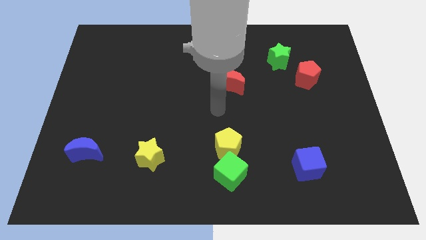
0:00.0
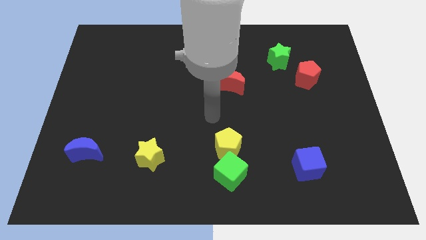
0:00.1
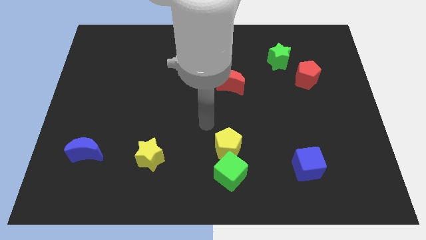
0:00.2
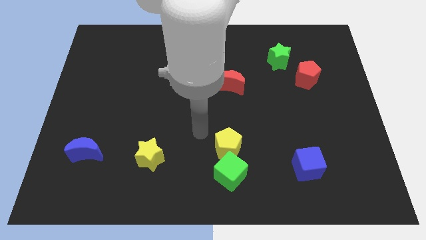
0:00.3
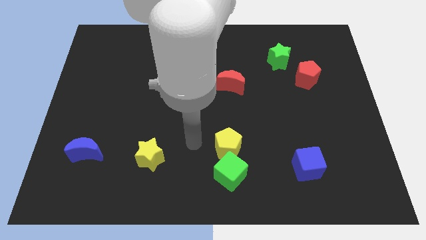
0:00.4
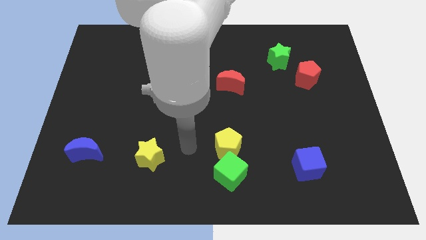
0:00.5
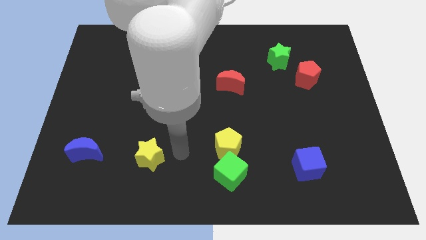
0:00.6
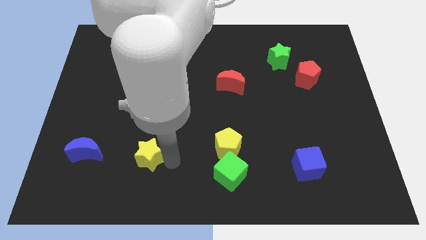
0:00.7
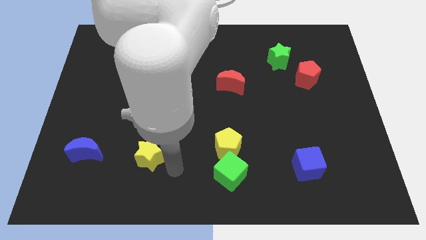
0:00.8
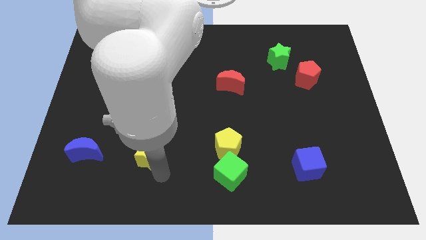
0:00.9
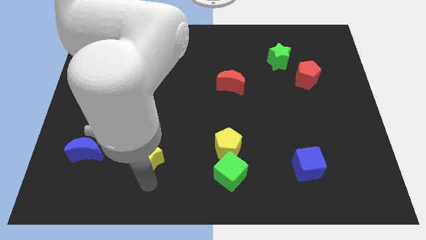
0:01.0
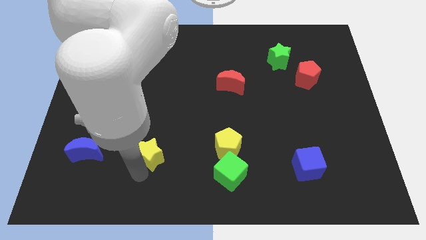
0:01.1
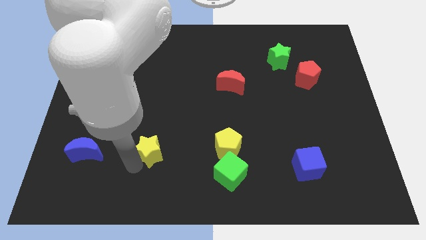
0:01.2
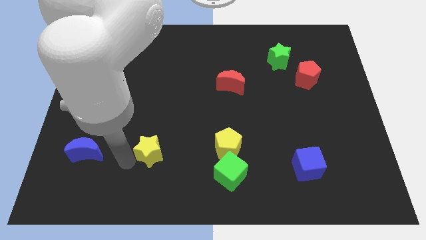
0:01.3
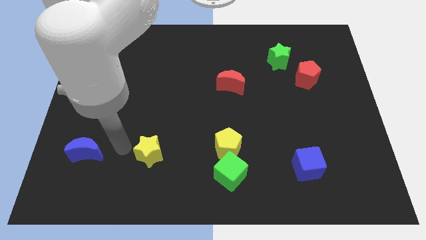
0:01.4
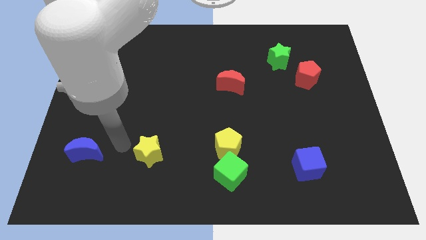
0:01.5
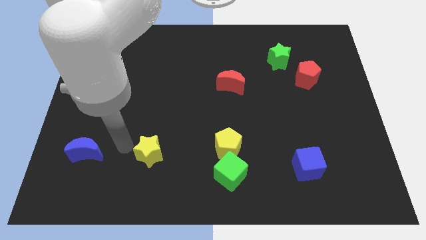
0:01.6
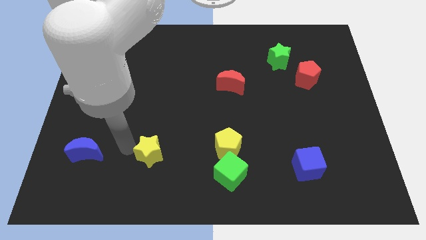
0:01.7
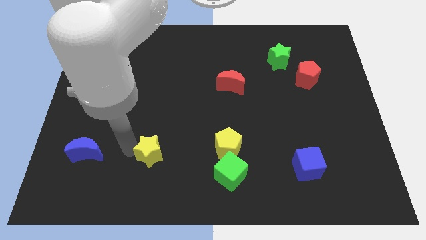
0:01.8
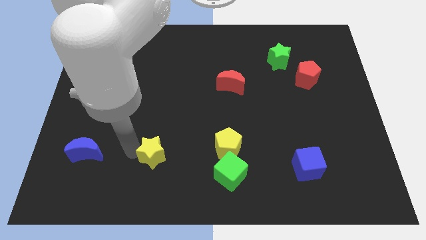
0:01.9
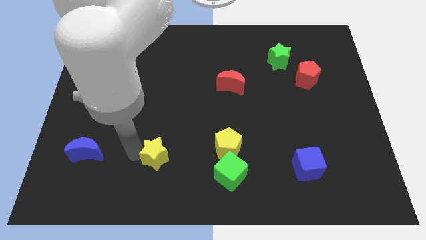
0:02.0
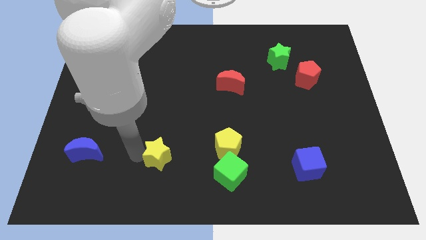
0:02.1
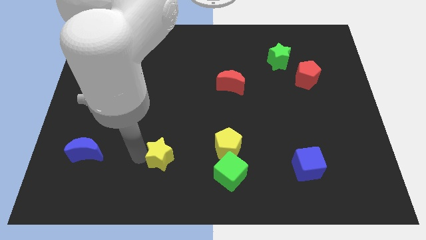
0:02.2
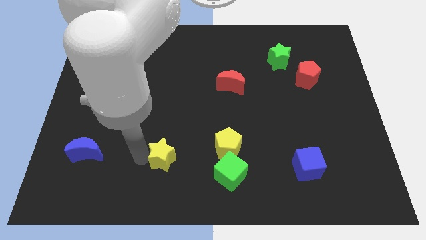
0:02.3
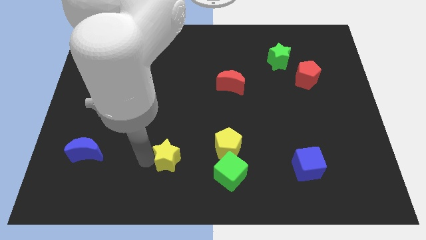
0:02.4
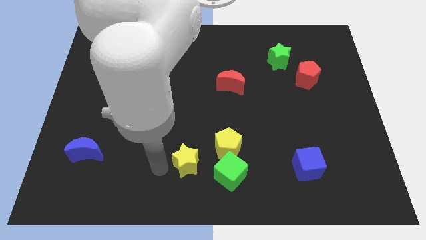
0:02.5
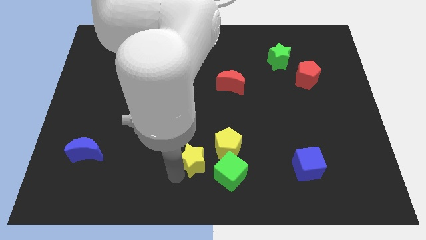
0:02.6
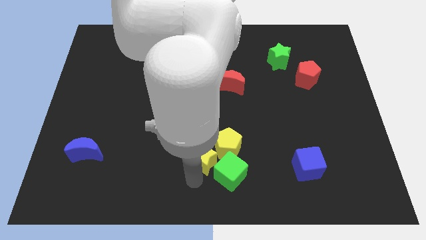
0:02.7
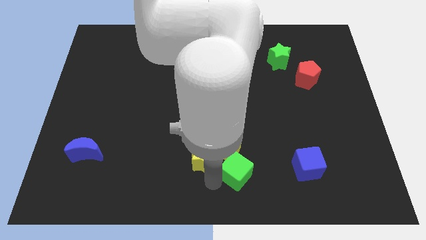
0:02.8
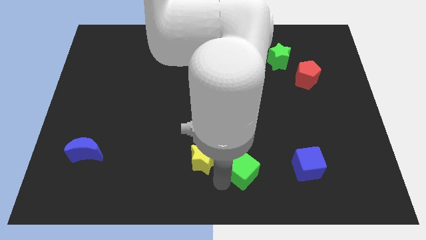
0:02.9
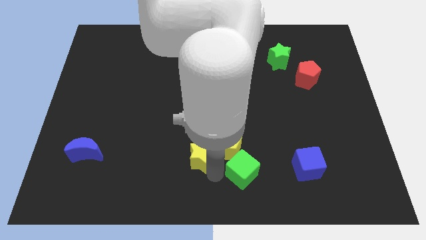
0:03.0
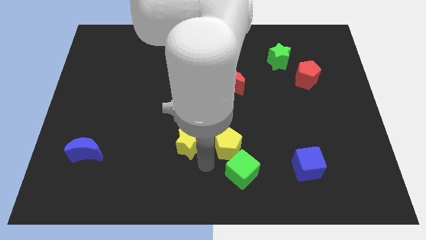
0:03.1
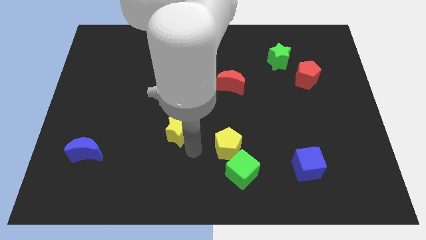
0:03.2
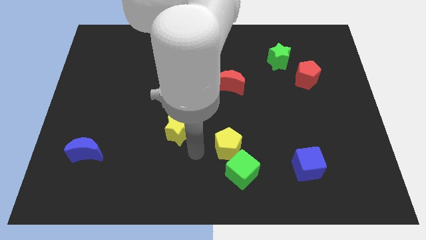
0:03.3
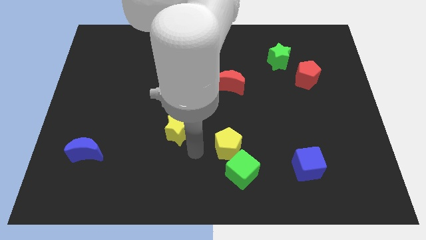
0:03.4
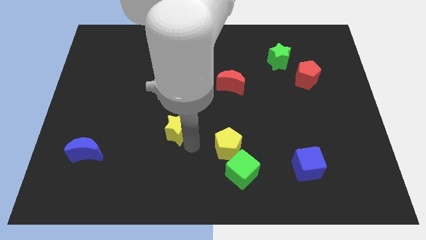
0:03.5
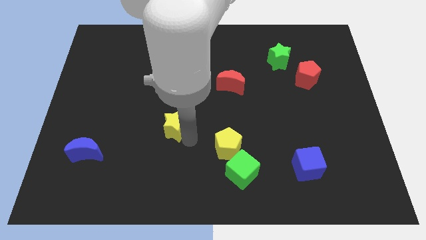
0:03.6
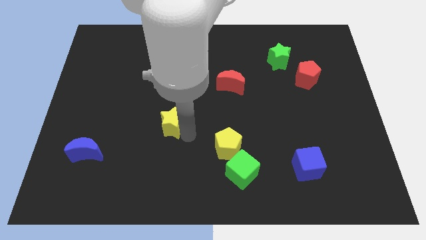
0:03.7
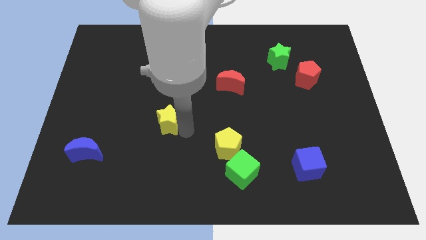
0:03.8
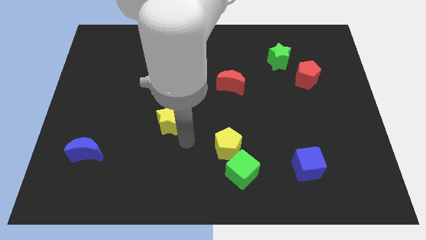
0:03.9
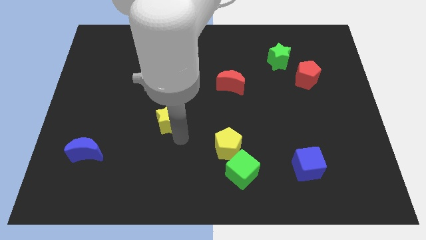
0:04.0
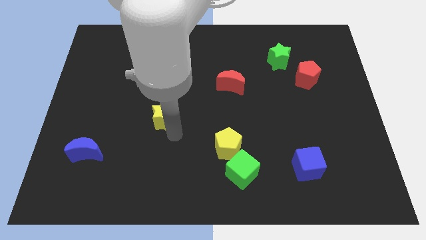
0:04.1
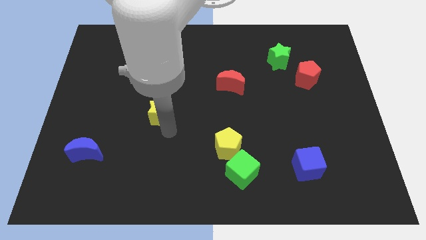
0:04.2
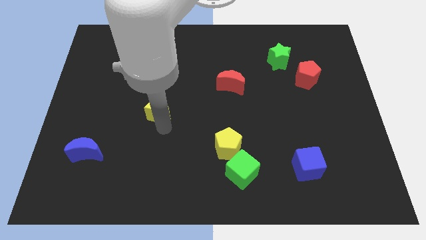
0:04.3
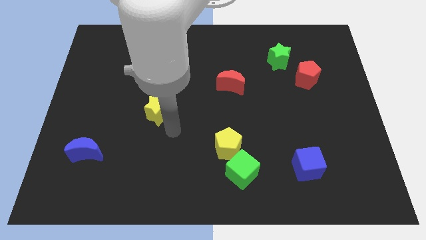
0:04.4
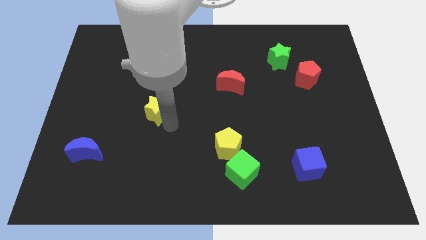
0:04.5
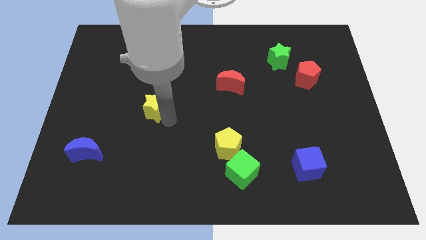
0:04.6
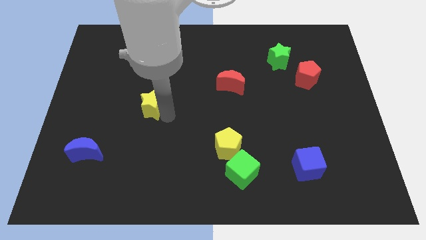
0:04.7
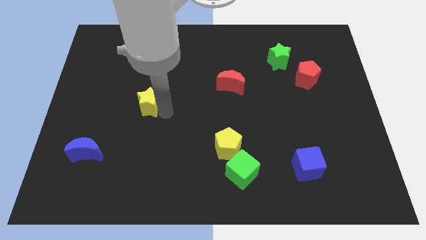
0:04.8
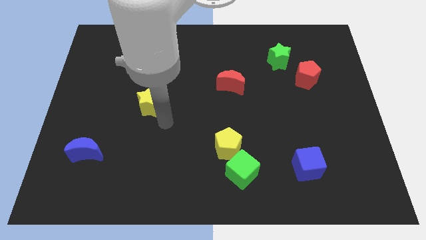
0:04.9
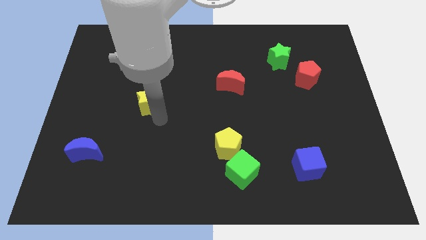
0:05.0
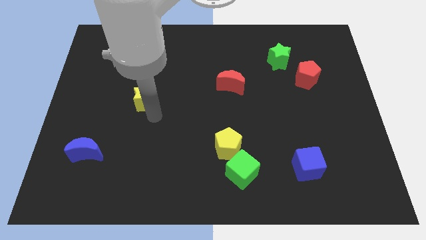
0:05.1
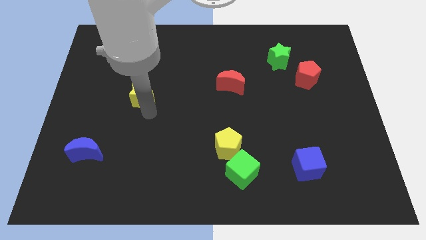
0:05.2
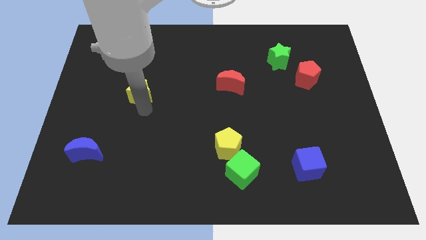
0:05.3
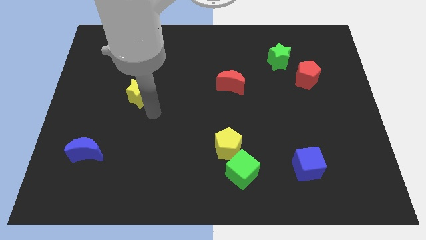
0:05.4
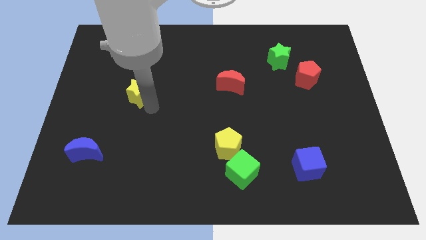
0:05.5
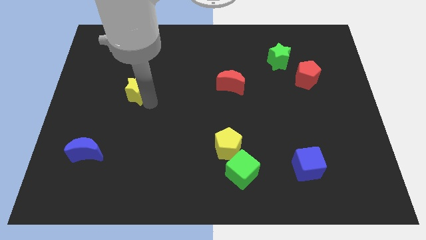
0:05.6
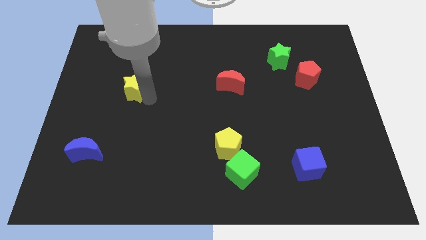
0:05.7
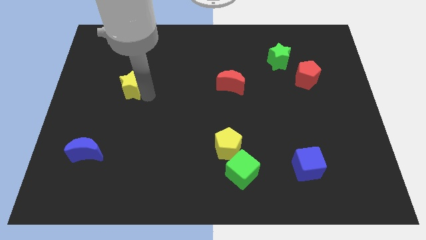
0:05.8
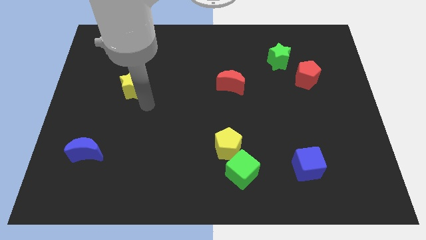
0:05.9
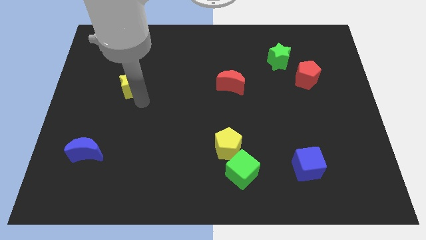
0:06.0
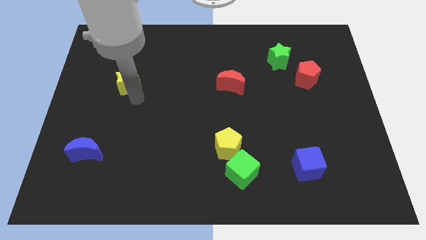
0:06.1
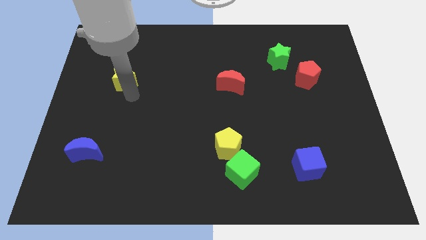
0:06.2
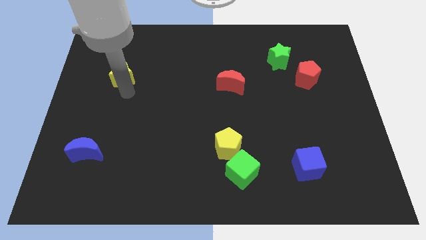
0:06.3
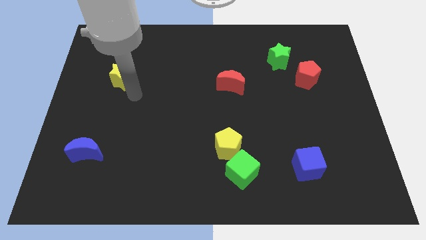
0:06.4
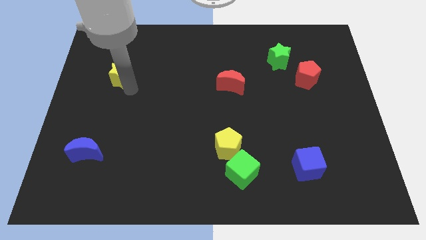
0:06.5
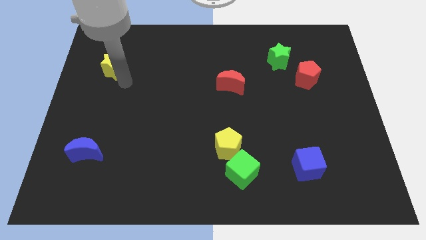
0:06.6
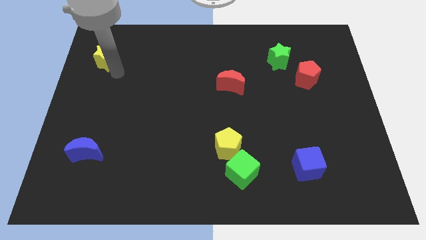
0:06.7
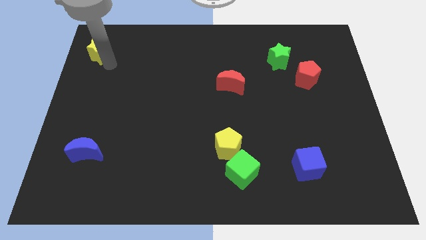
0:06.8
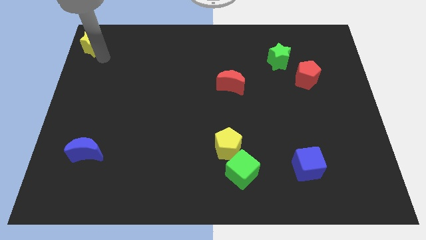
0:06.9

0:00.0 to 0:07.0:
push the yellow star to the top left corner
